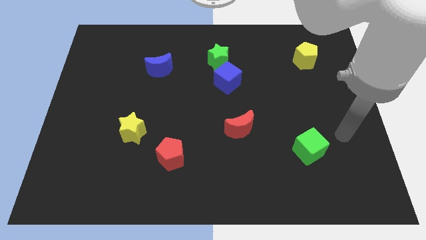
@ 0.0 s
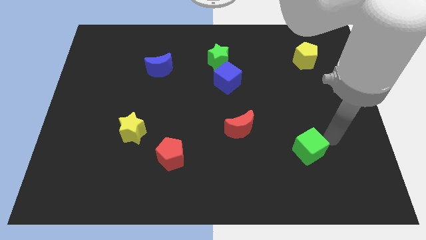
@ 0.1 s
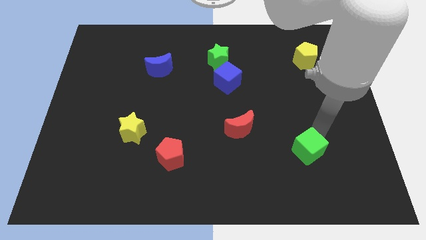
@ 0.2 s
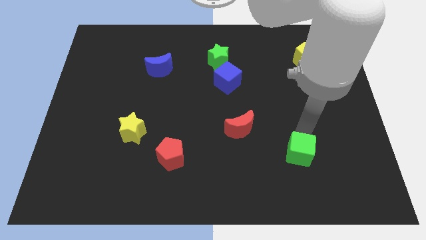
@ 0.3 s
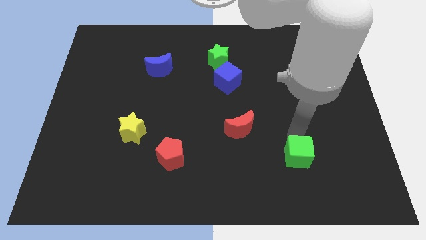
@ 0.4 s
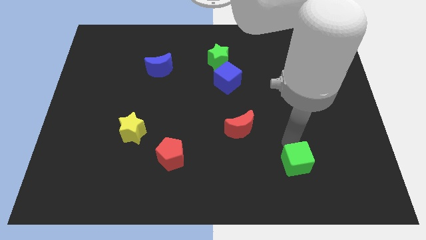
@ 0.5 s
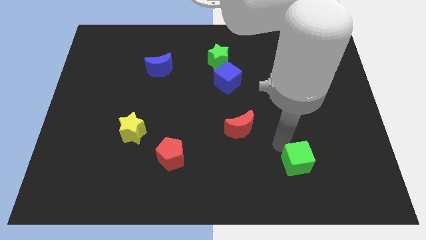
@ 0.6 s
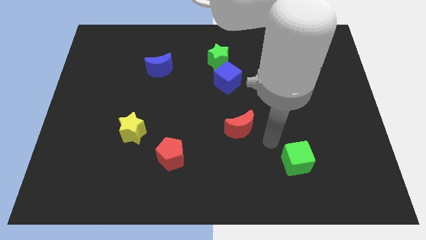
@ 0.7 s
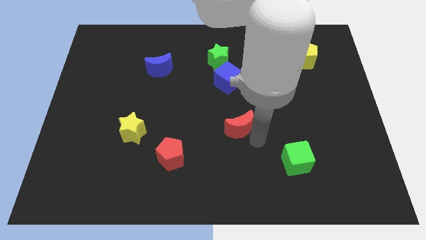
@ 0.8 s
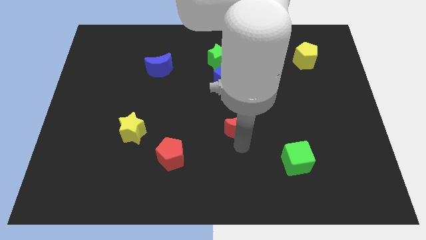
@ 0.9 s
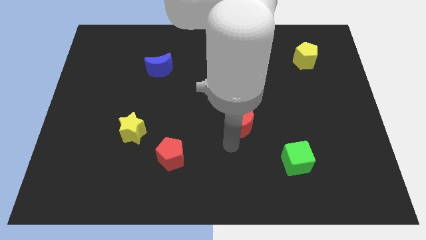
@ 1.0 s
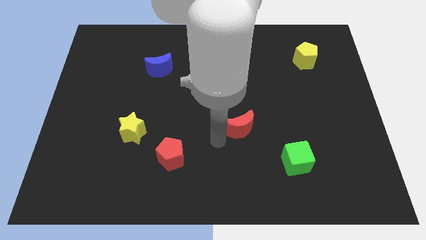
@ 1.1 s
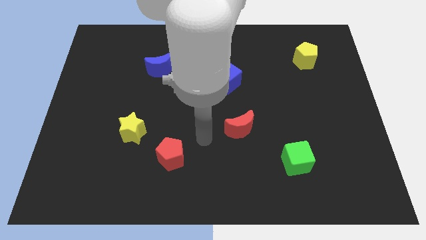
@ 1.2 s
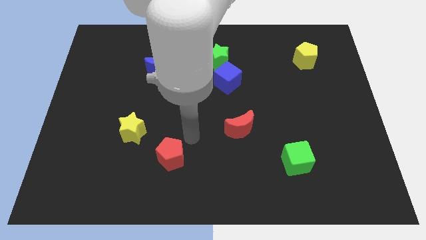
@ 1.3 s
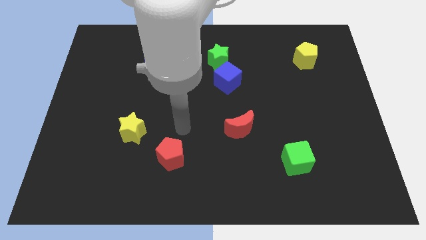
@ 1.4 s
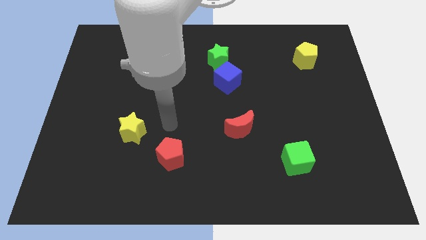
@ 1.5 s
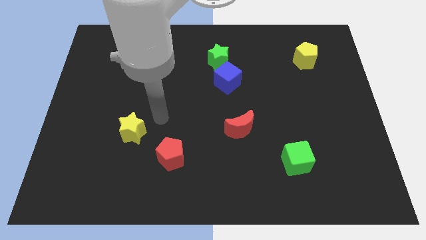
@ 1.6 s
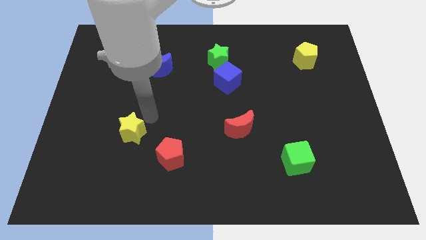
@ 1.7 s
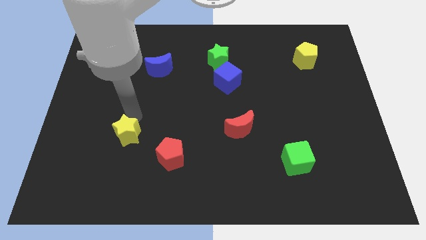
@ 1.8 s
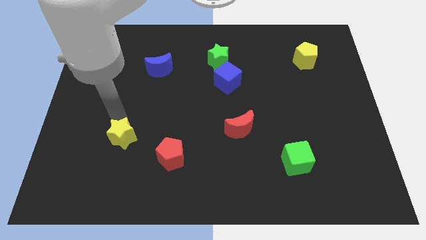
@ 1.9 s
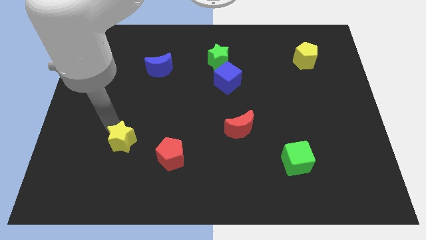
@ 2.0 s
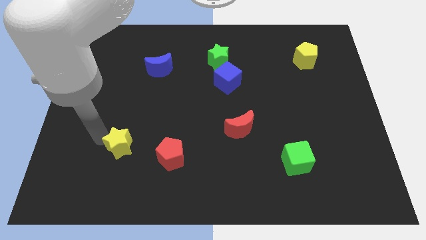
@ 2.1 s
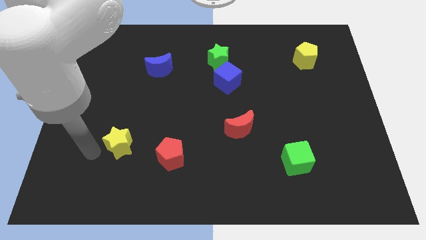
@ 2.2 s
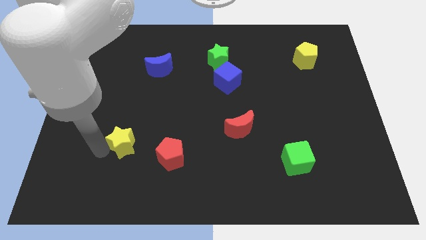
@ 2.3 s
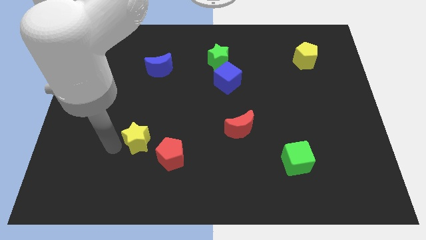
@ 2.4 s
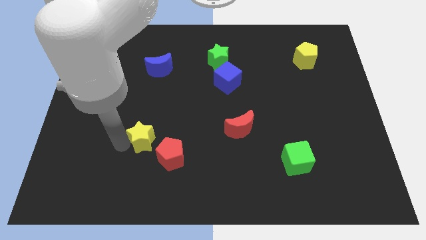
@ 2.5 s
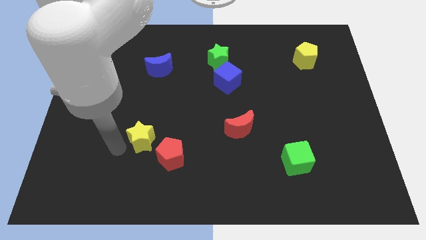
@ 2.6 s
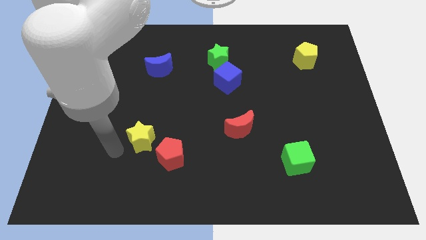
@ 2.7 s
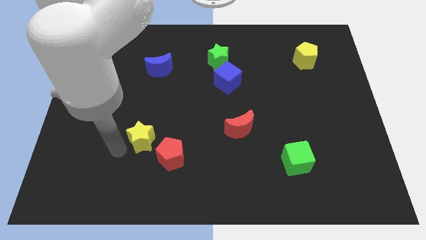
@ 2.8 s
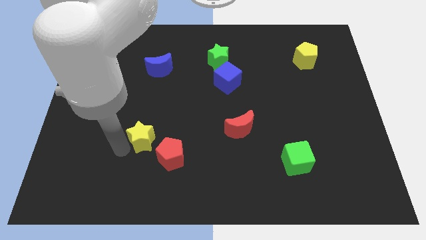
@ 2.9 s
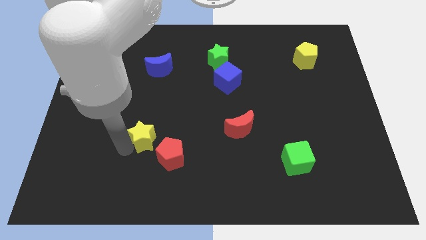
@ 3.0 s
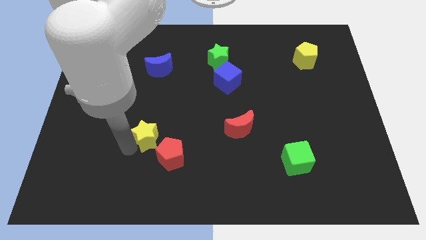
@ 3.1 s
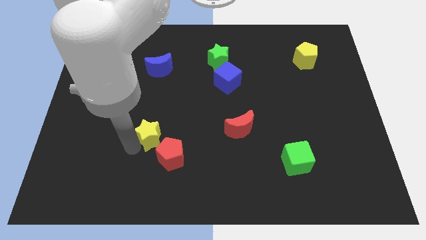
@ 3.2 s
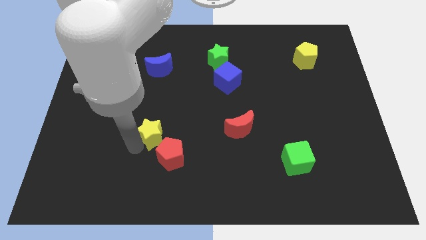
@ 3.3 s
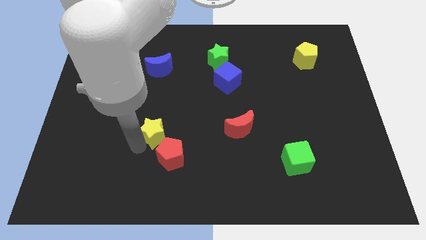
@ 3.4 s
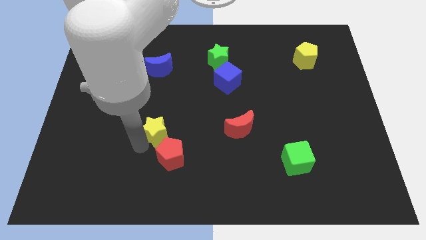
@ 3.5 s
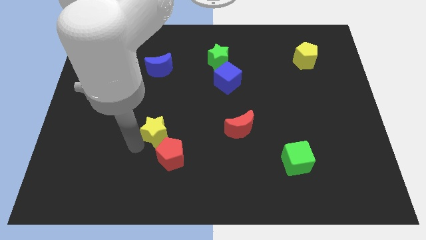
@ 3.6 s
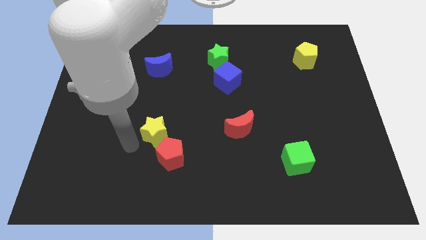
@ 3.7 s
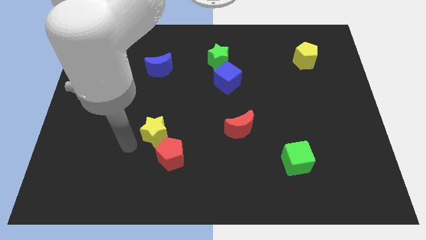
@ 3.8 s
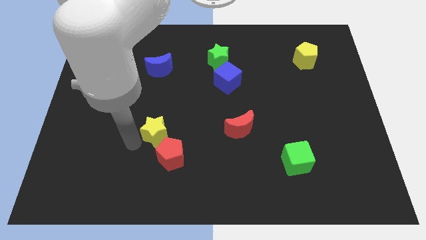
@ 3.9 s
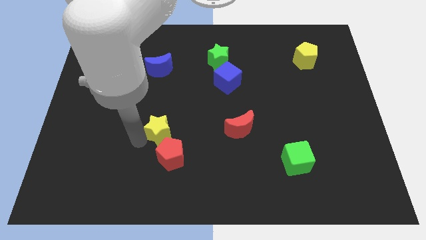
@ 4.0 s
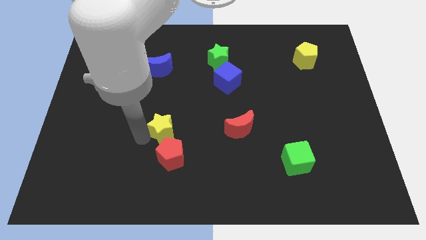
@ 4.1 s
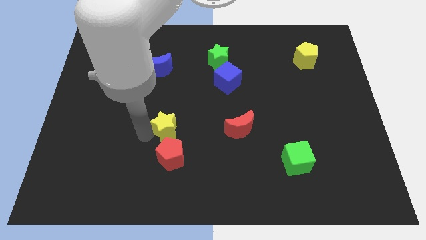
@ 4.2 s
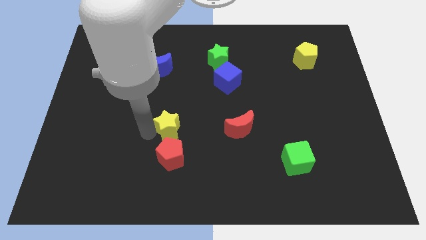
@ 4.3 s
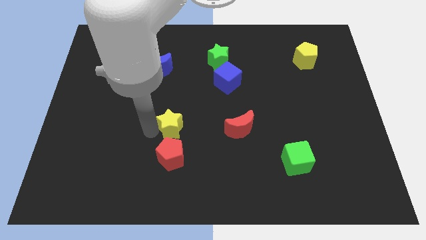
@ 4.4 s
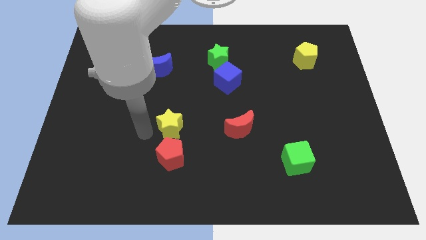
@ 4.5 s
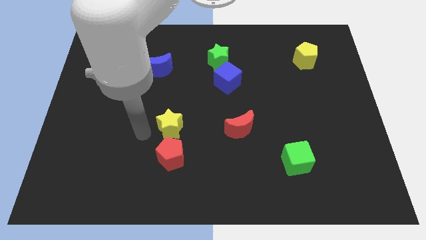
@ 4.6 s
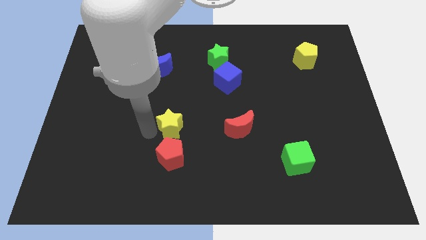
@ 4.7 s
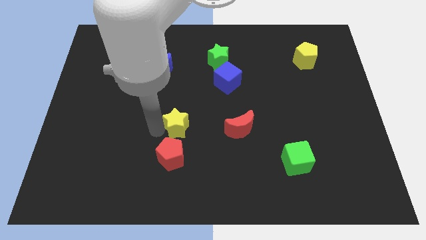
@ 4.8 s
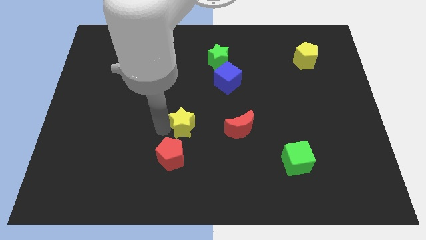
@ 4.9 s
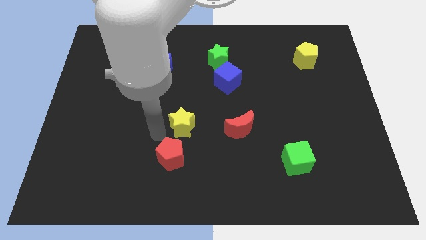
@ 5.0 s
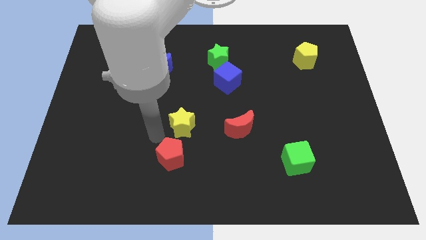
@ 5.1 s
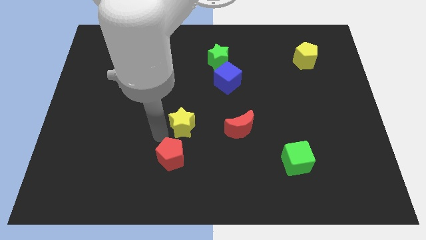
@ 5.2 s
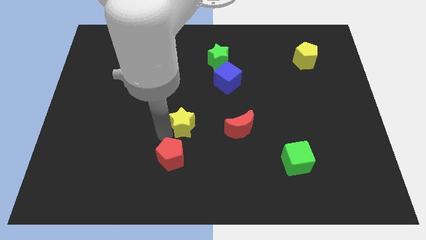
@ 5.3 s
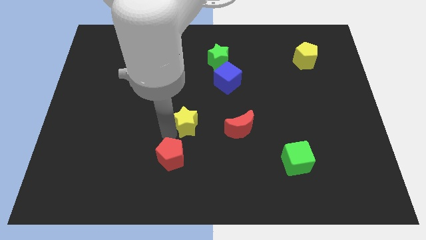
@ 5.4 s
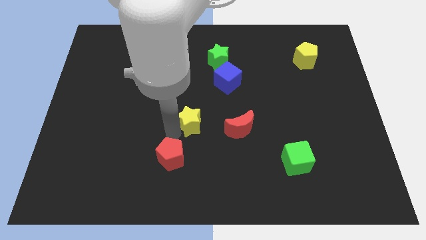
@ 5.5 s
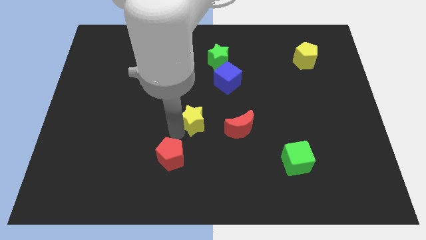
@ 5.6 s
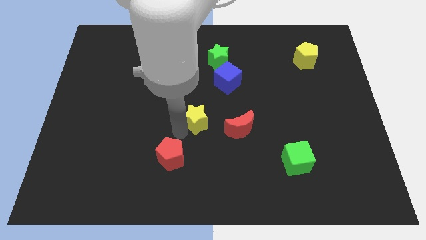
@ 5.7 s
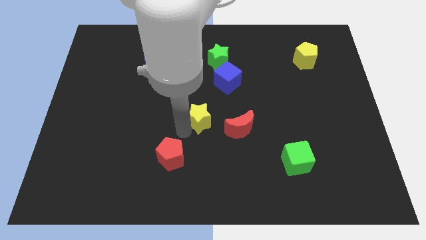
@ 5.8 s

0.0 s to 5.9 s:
put the yellow star to the top left side of the red moon

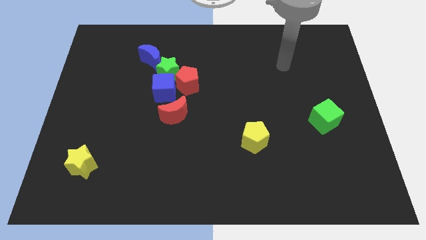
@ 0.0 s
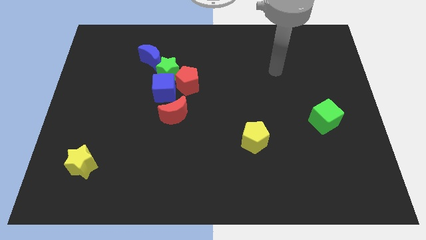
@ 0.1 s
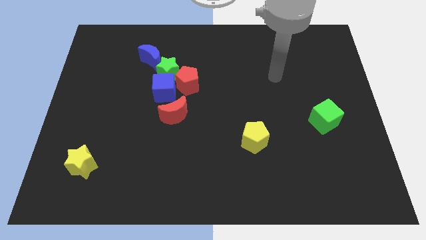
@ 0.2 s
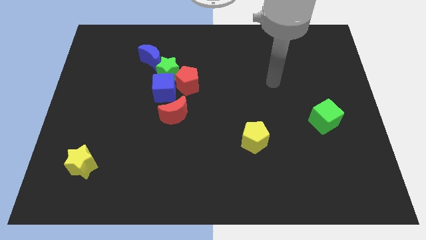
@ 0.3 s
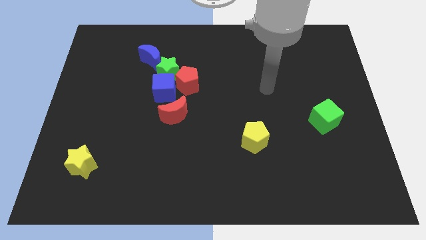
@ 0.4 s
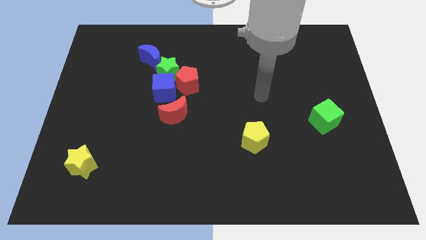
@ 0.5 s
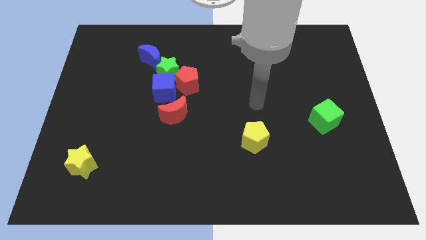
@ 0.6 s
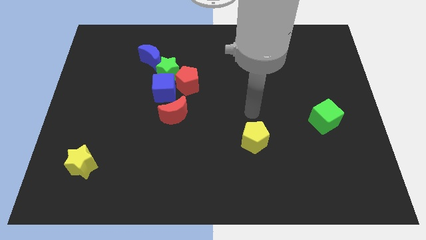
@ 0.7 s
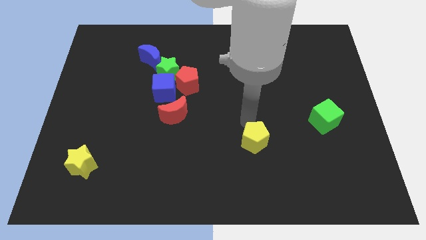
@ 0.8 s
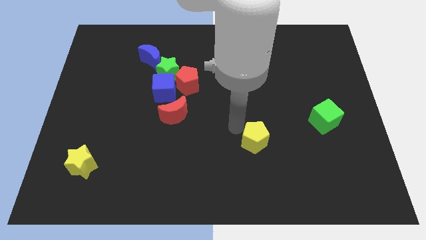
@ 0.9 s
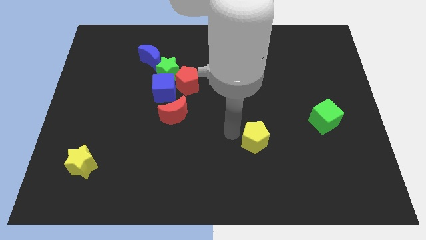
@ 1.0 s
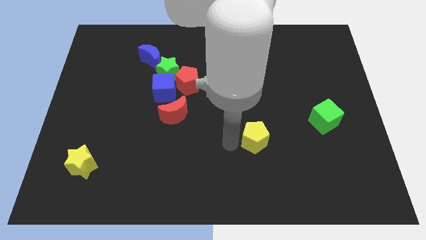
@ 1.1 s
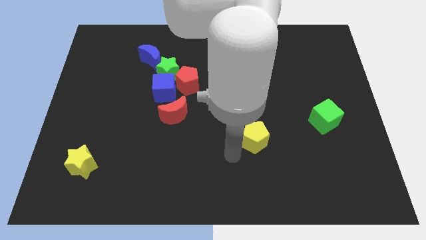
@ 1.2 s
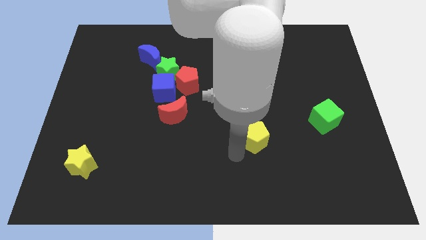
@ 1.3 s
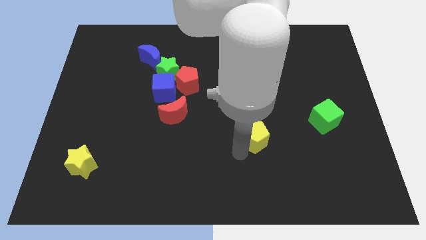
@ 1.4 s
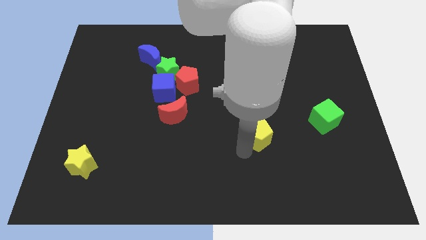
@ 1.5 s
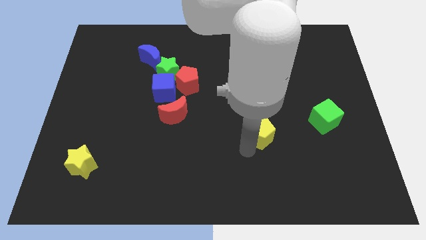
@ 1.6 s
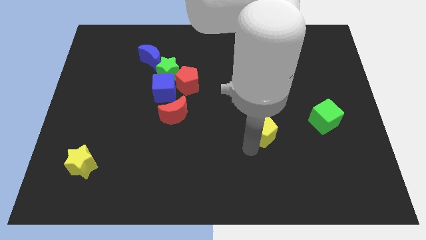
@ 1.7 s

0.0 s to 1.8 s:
move the yellow pentagon to the left of the green cube
